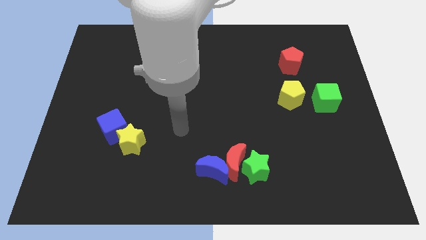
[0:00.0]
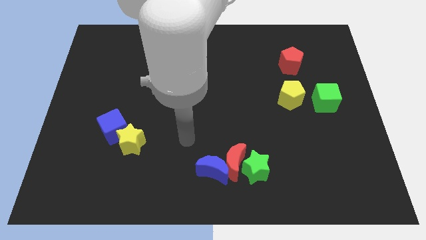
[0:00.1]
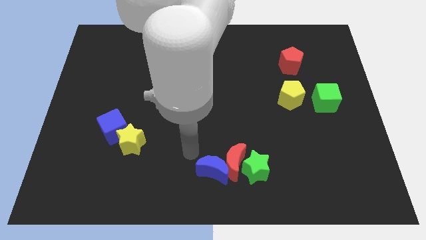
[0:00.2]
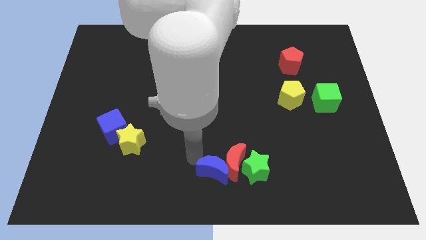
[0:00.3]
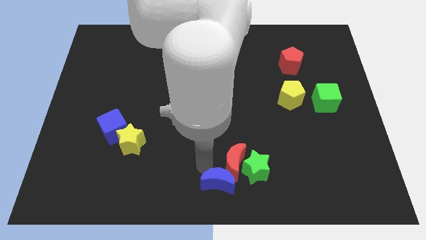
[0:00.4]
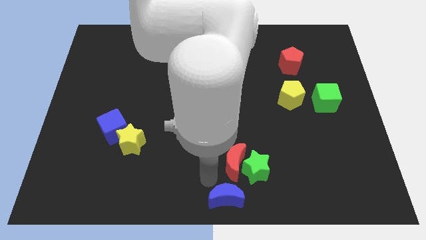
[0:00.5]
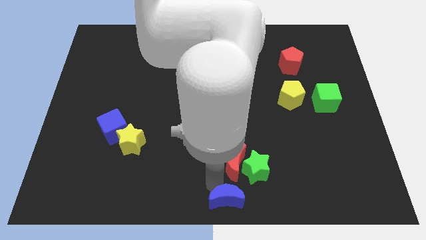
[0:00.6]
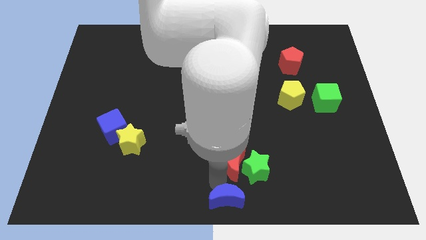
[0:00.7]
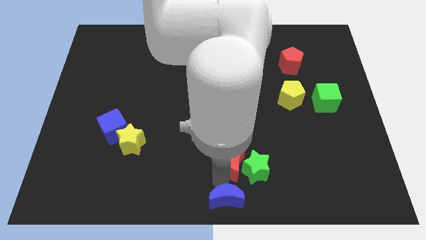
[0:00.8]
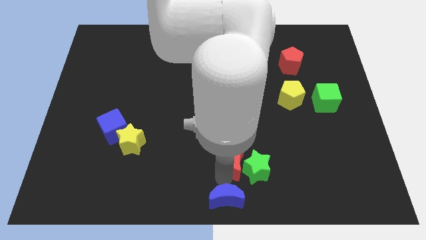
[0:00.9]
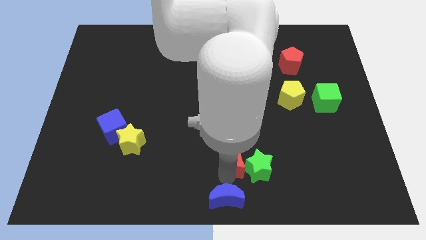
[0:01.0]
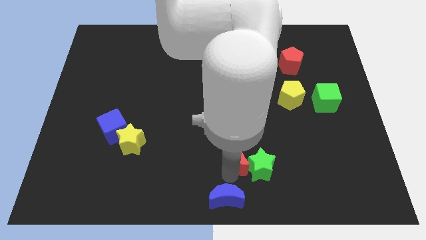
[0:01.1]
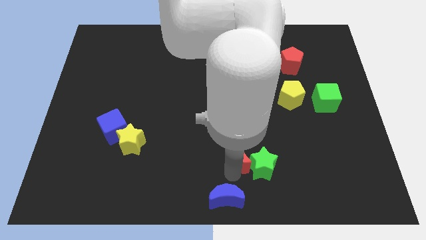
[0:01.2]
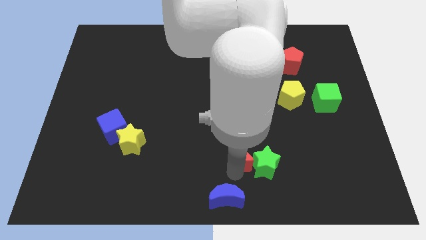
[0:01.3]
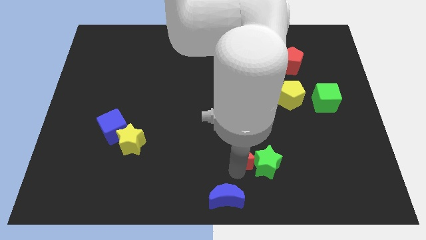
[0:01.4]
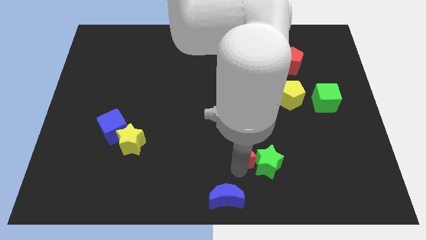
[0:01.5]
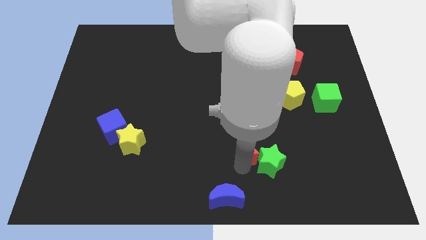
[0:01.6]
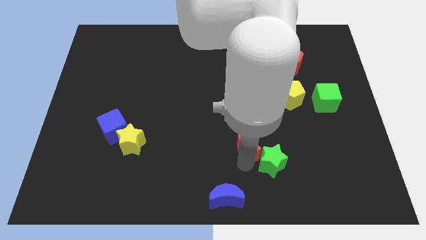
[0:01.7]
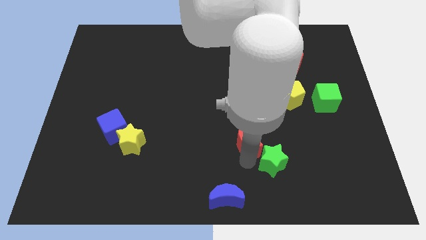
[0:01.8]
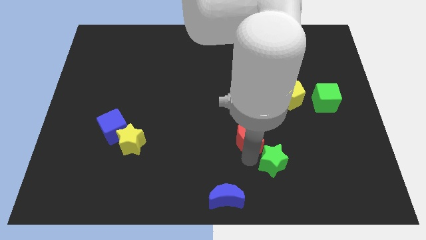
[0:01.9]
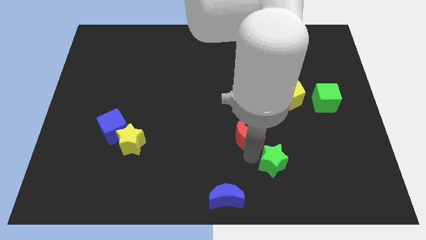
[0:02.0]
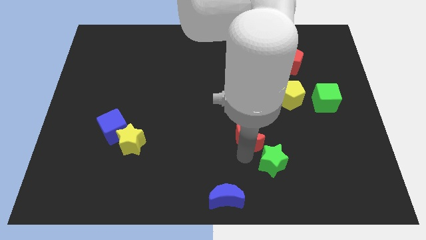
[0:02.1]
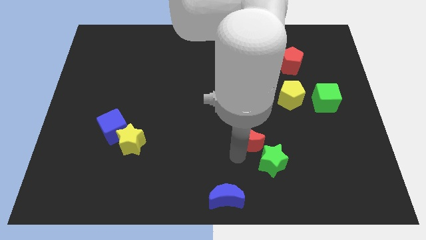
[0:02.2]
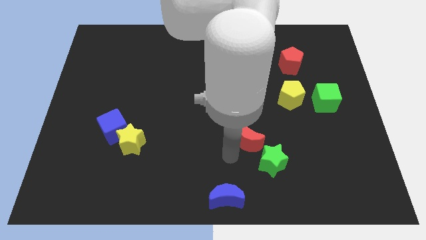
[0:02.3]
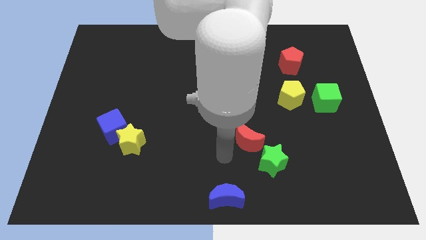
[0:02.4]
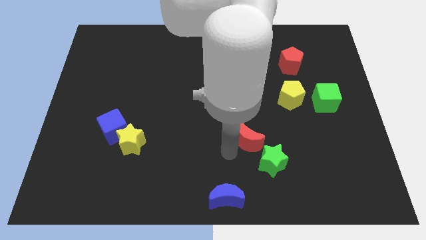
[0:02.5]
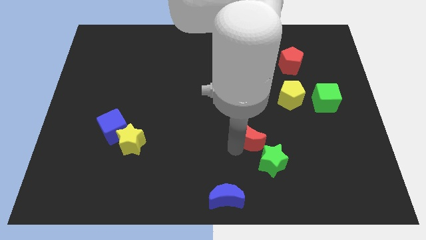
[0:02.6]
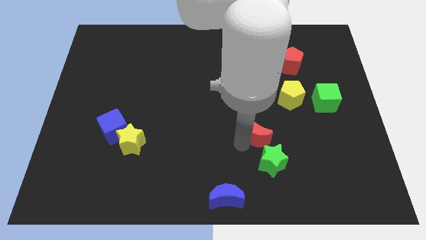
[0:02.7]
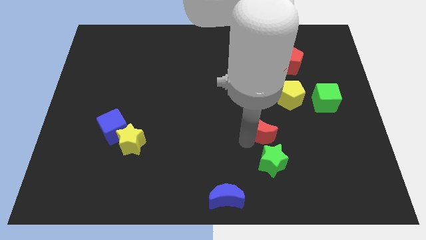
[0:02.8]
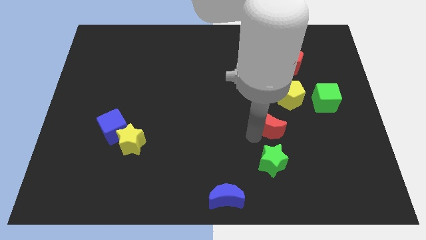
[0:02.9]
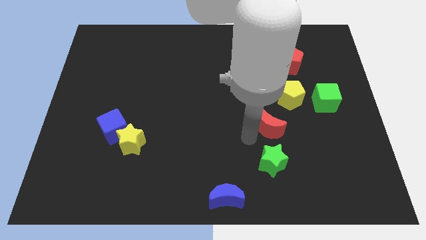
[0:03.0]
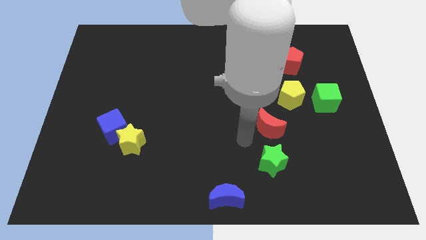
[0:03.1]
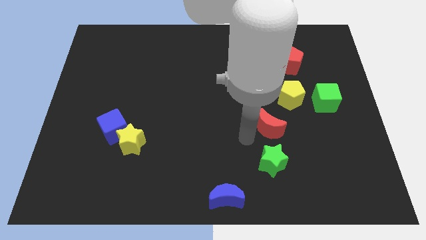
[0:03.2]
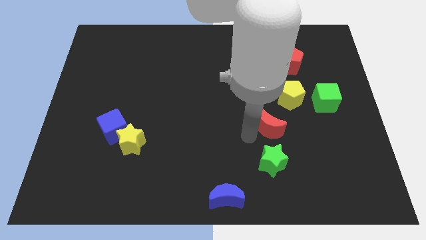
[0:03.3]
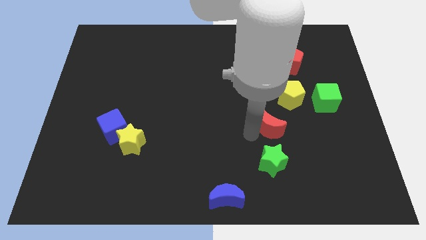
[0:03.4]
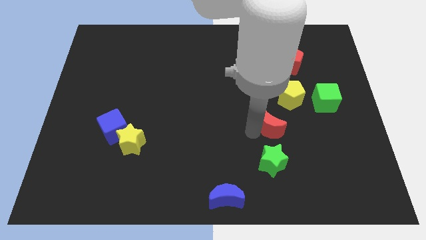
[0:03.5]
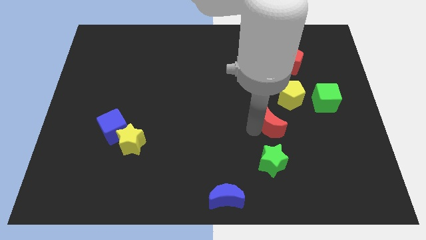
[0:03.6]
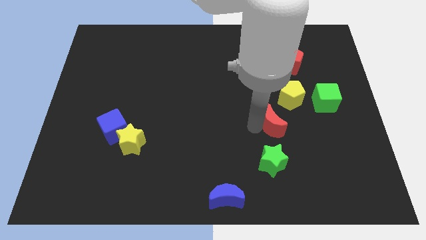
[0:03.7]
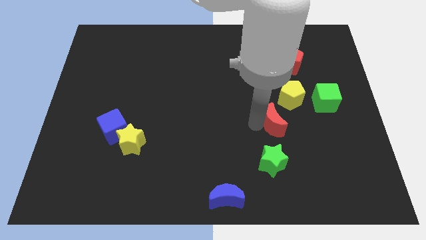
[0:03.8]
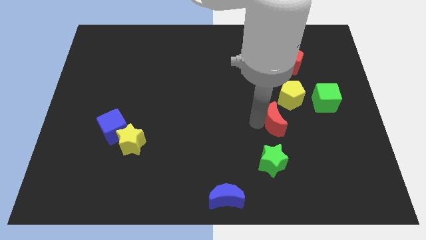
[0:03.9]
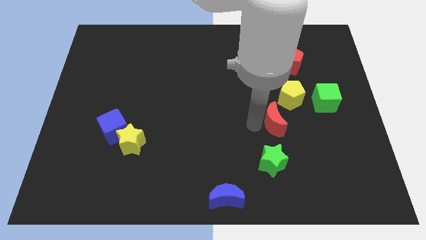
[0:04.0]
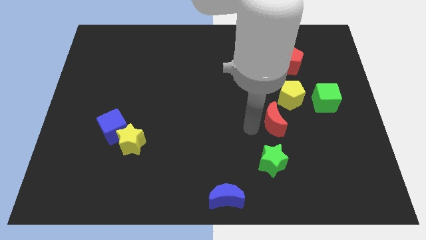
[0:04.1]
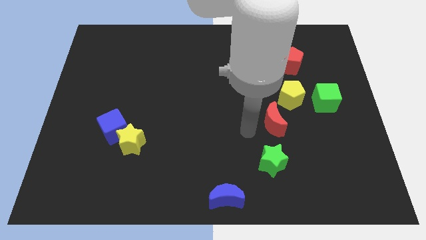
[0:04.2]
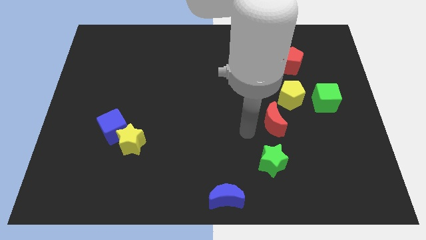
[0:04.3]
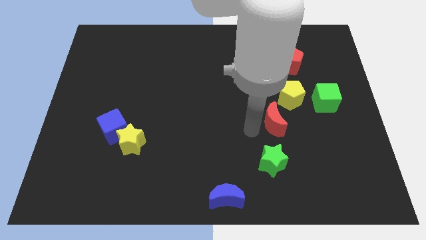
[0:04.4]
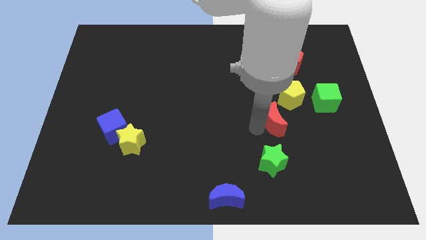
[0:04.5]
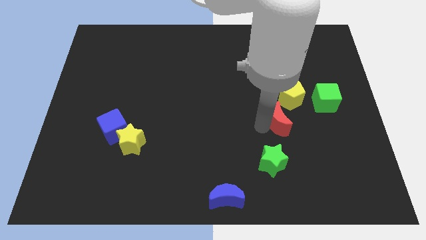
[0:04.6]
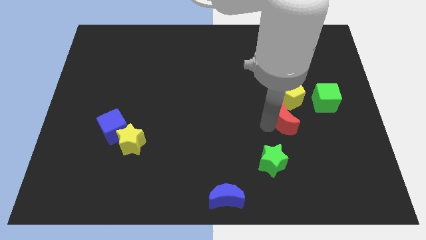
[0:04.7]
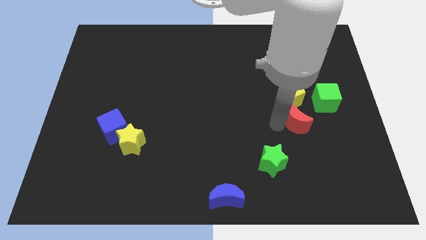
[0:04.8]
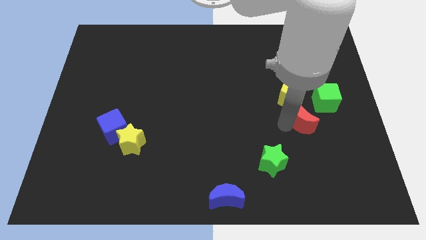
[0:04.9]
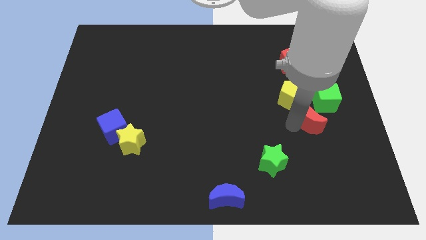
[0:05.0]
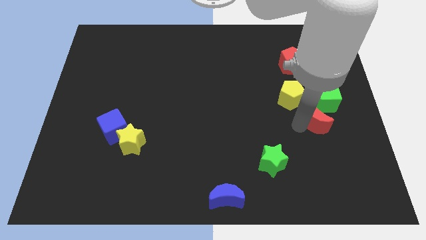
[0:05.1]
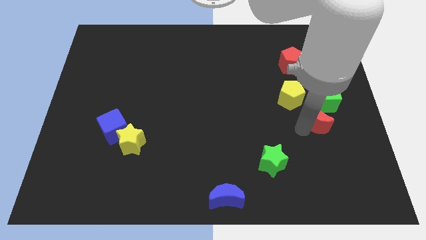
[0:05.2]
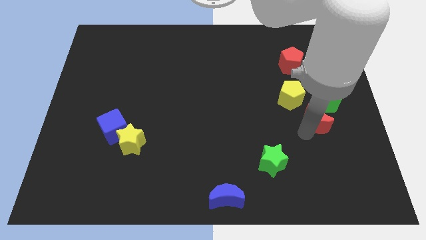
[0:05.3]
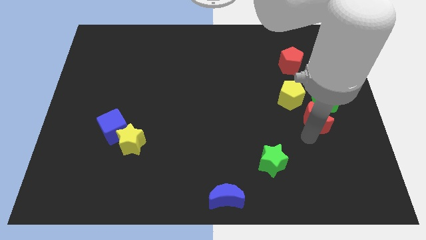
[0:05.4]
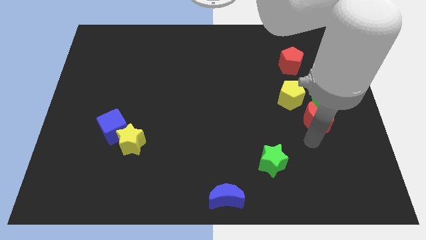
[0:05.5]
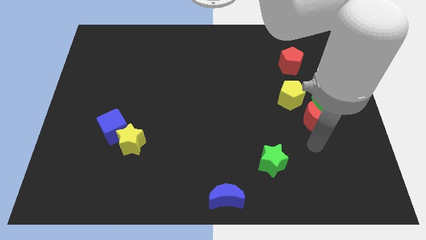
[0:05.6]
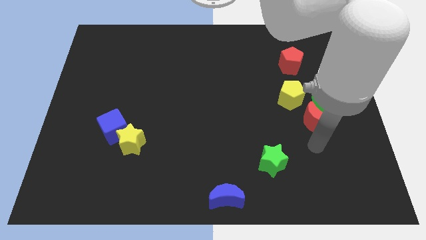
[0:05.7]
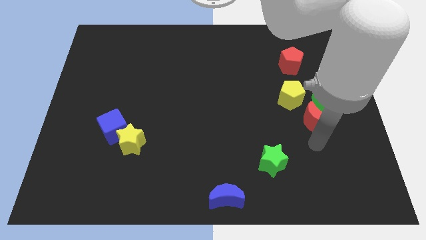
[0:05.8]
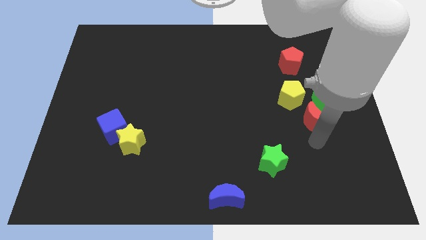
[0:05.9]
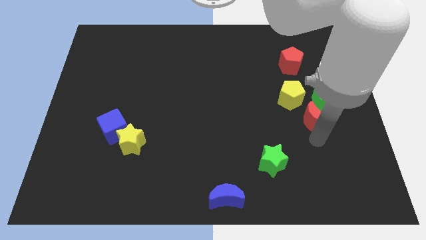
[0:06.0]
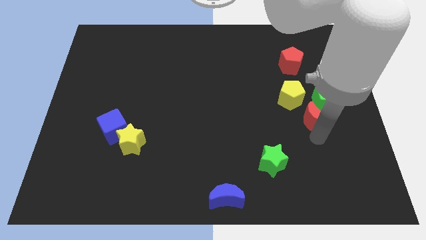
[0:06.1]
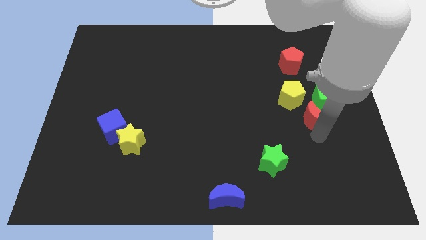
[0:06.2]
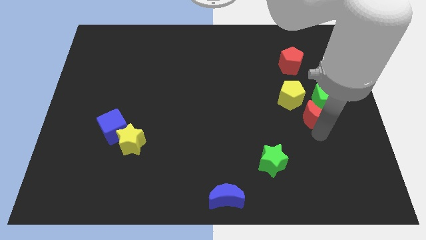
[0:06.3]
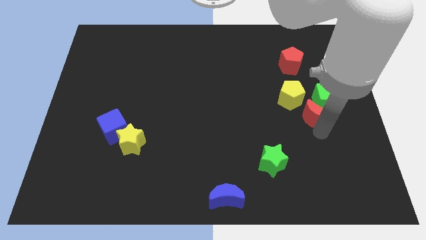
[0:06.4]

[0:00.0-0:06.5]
push the red moon close to the green cube
